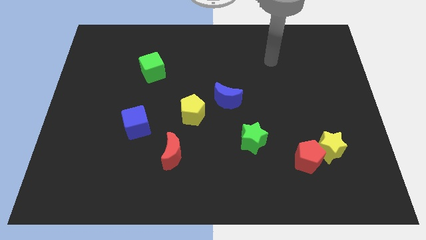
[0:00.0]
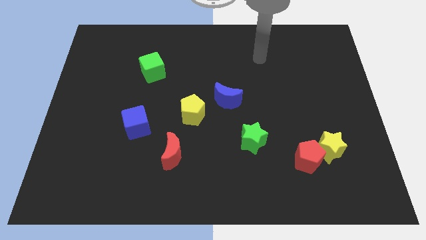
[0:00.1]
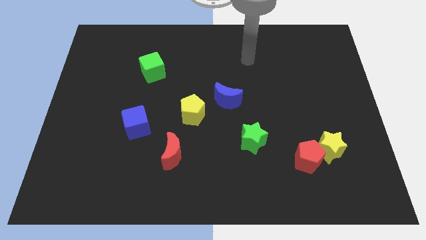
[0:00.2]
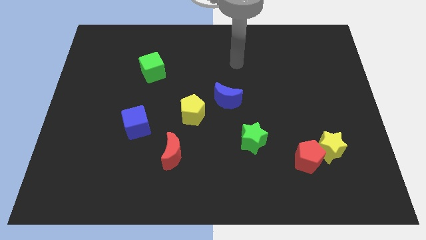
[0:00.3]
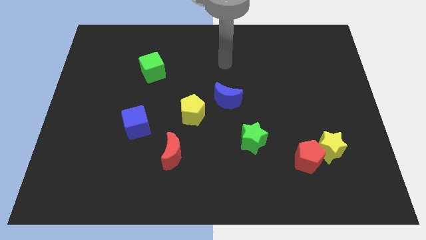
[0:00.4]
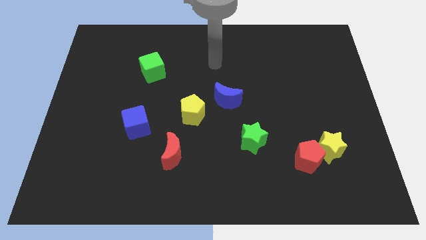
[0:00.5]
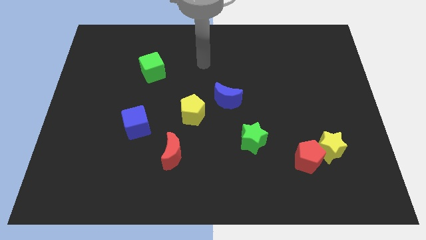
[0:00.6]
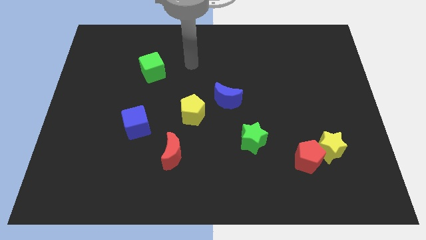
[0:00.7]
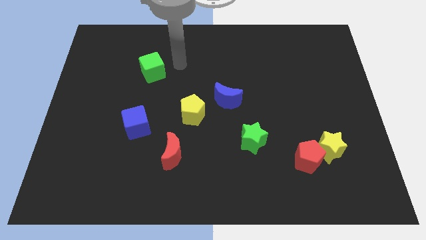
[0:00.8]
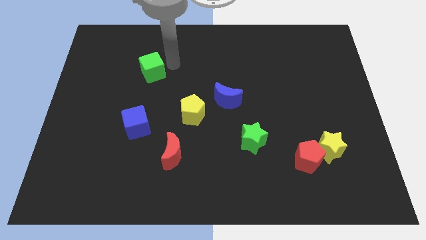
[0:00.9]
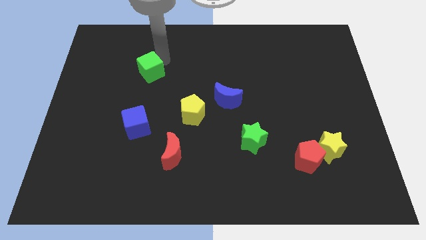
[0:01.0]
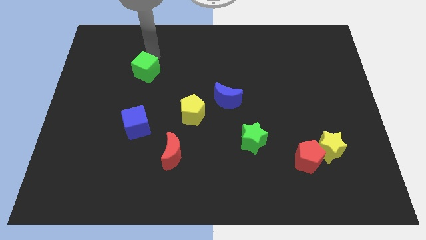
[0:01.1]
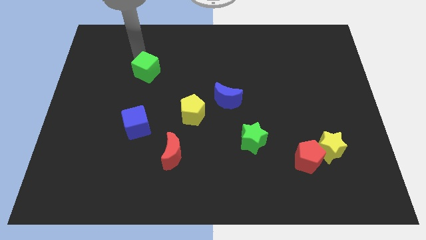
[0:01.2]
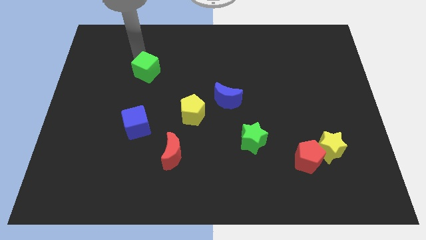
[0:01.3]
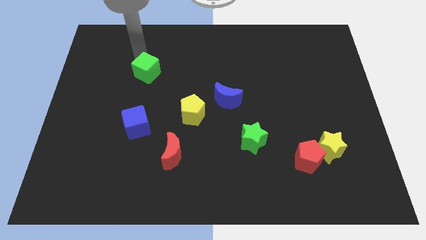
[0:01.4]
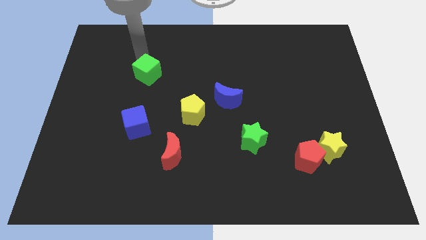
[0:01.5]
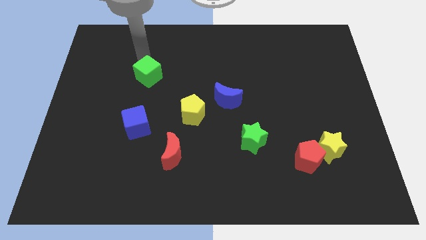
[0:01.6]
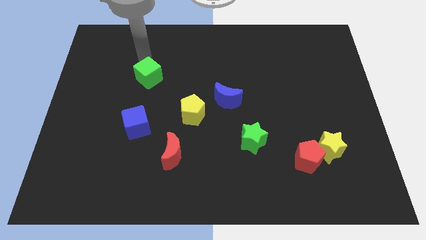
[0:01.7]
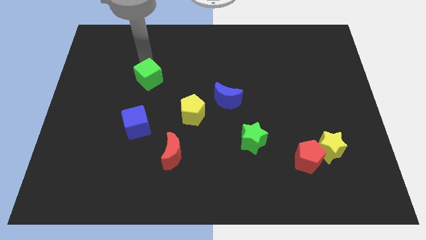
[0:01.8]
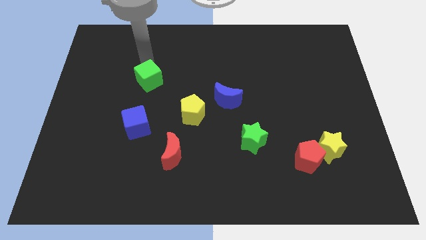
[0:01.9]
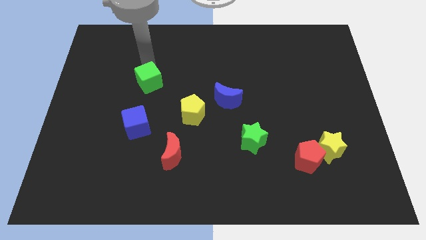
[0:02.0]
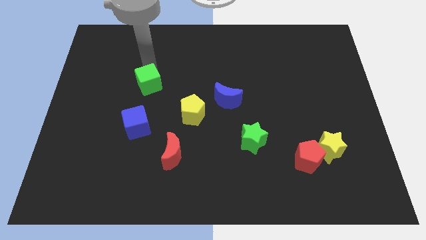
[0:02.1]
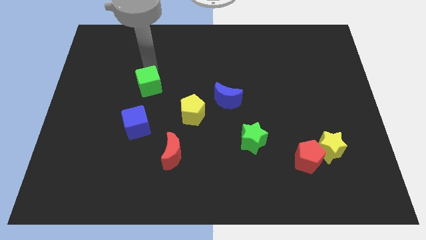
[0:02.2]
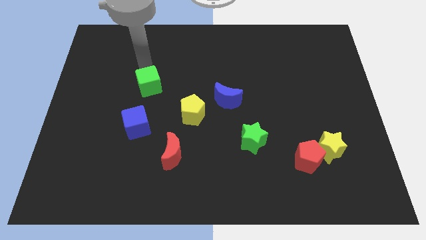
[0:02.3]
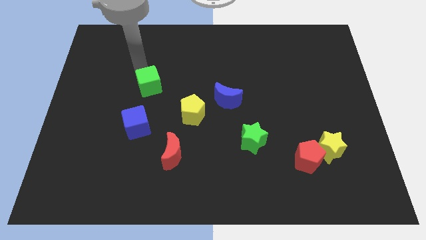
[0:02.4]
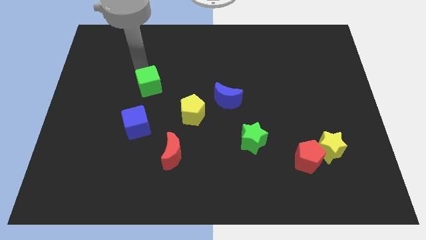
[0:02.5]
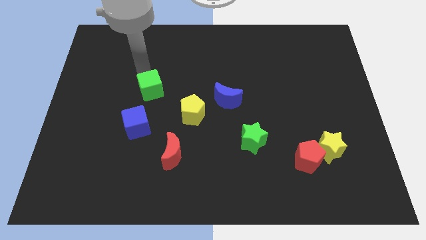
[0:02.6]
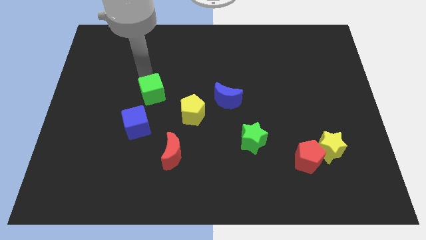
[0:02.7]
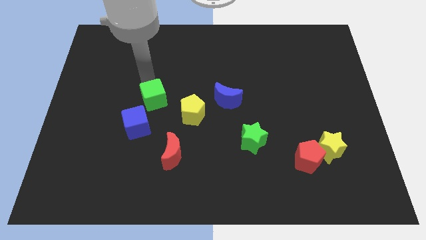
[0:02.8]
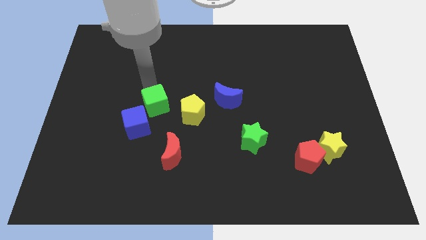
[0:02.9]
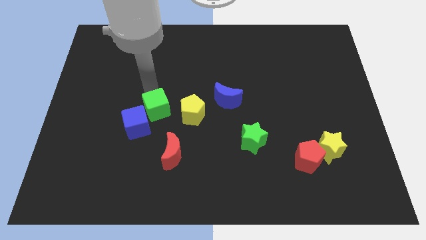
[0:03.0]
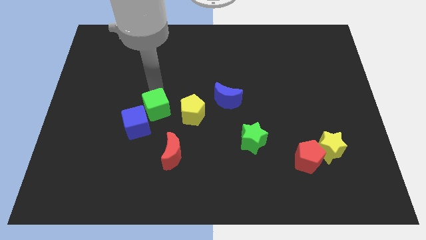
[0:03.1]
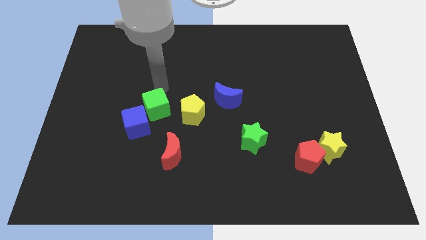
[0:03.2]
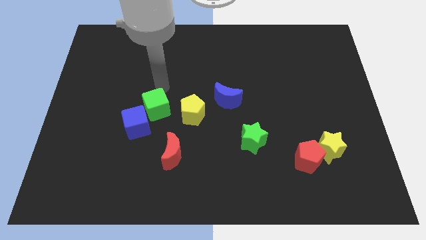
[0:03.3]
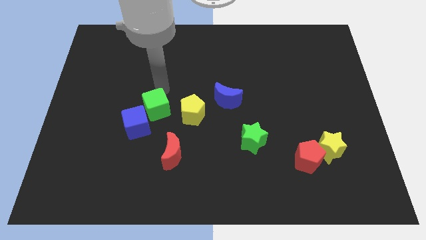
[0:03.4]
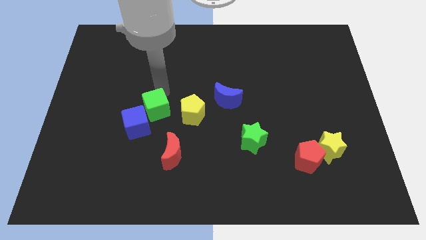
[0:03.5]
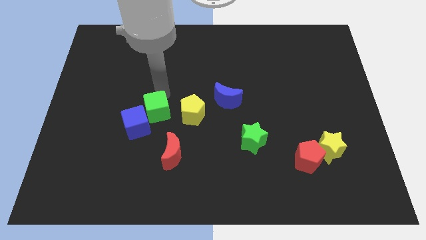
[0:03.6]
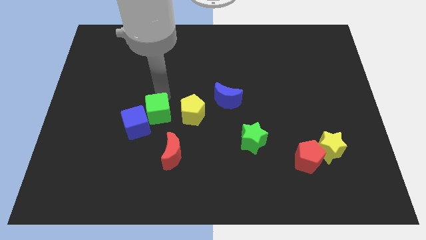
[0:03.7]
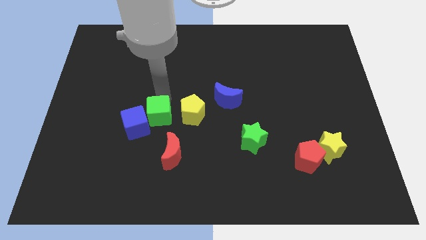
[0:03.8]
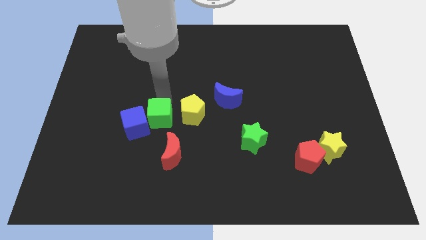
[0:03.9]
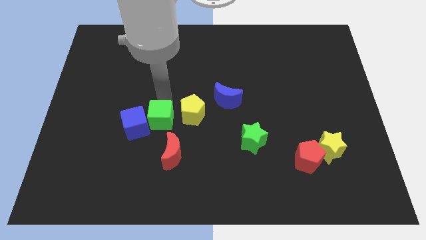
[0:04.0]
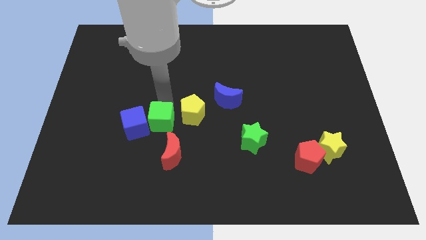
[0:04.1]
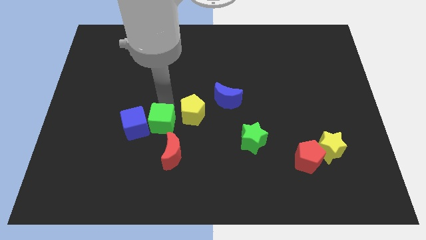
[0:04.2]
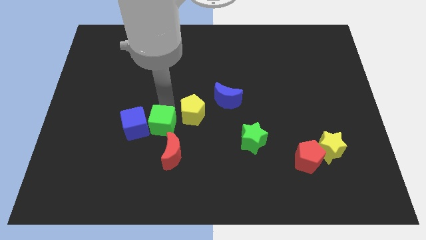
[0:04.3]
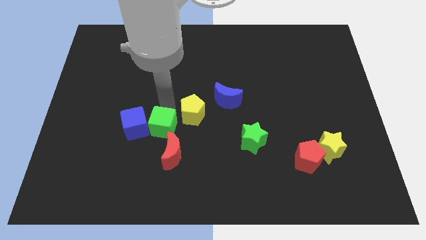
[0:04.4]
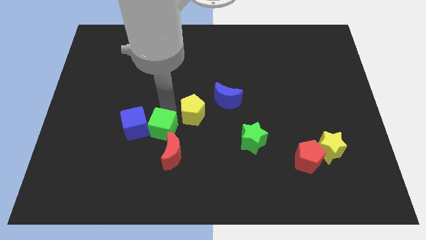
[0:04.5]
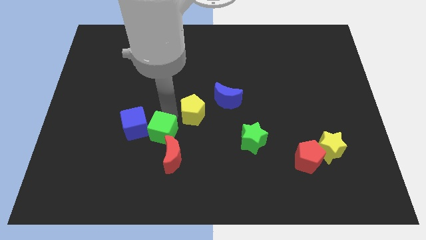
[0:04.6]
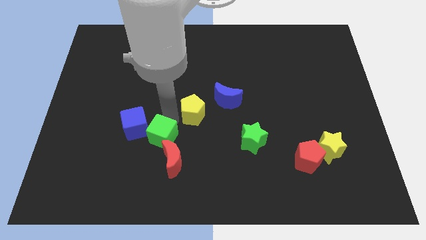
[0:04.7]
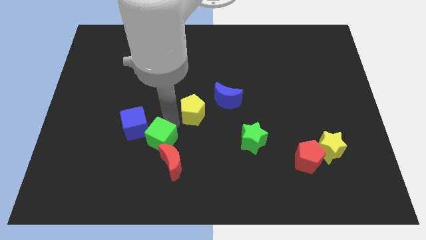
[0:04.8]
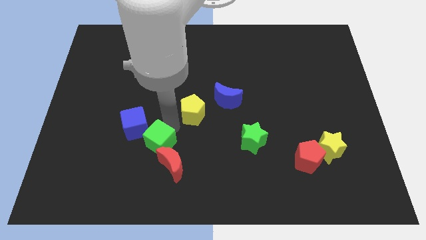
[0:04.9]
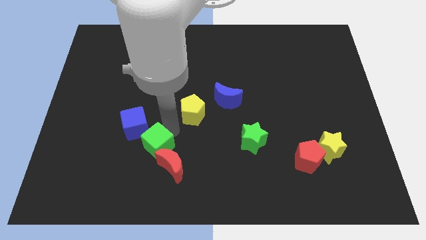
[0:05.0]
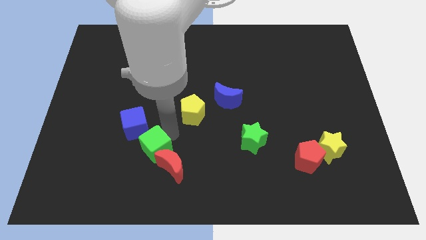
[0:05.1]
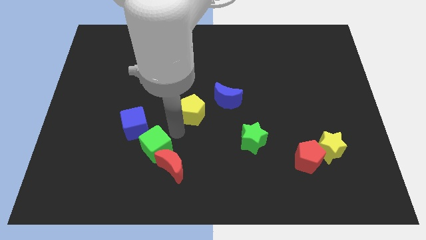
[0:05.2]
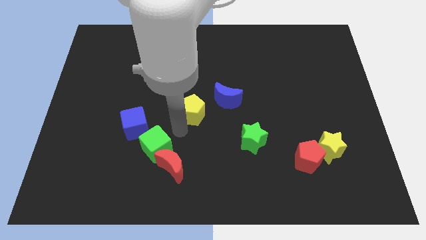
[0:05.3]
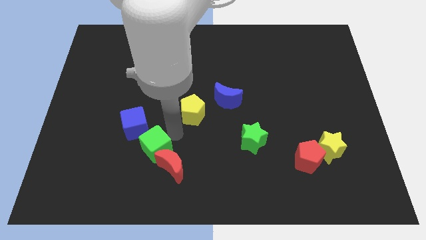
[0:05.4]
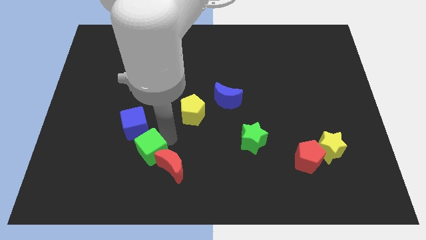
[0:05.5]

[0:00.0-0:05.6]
move the green cube to the bottom of the blue cube

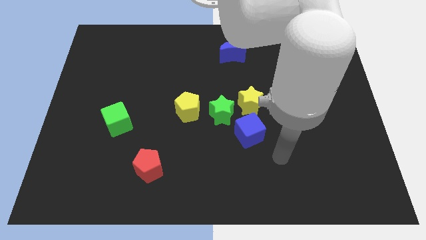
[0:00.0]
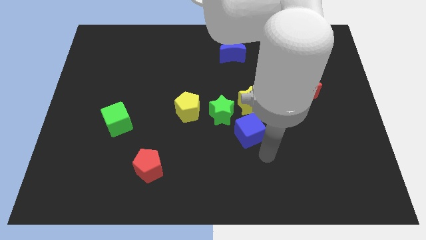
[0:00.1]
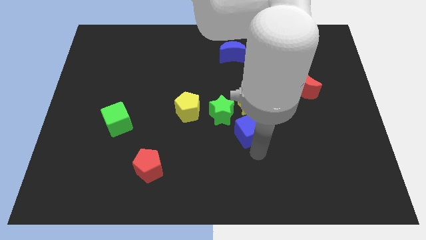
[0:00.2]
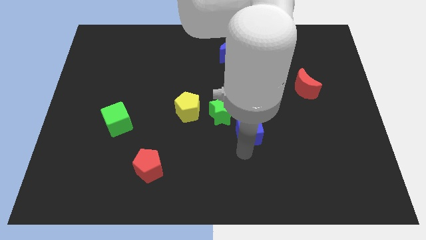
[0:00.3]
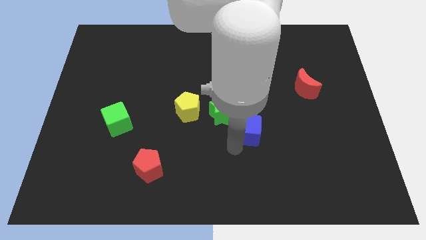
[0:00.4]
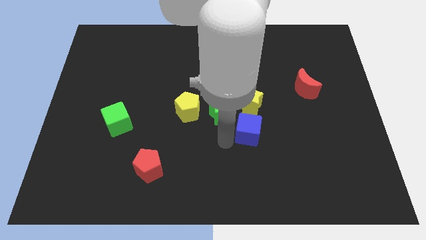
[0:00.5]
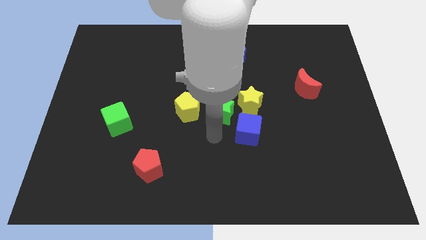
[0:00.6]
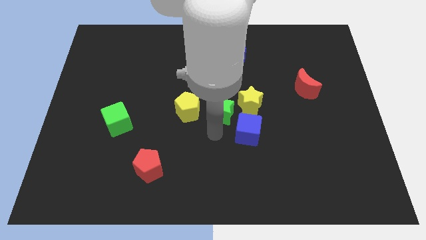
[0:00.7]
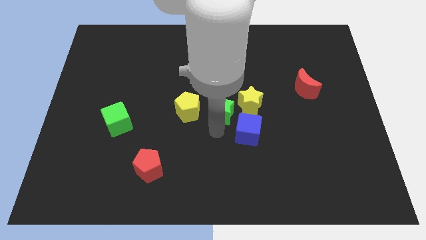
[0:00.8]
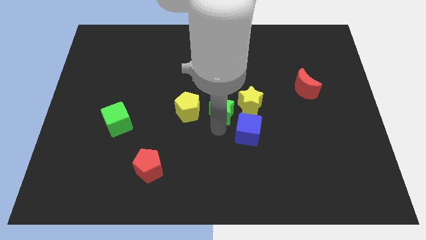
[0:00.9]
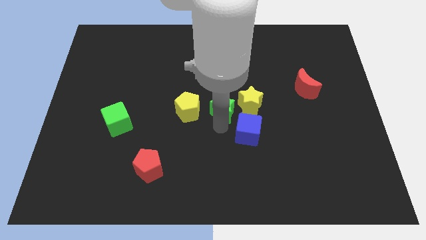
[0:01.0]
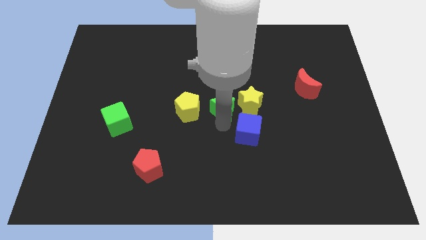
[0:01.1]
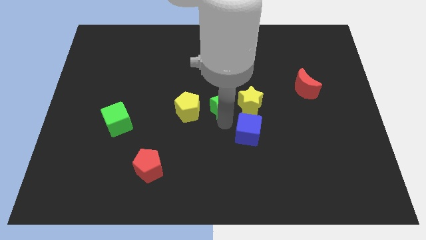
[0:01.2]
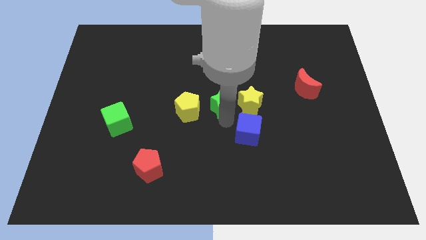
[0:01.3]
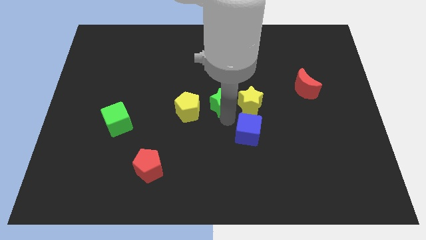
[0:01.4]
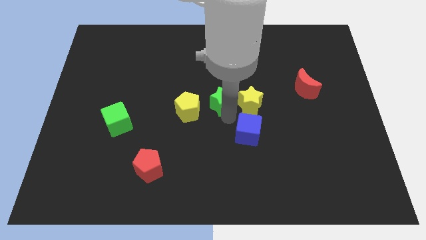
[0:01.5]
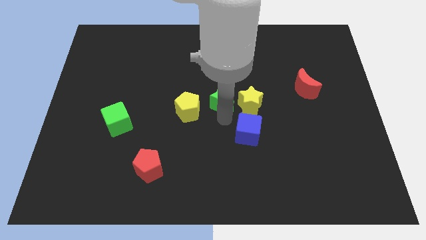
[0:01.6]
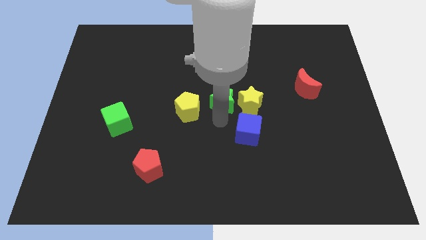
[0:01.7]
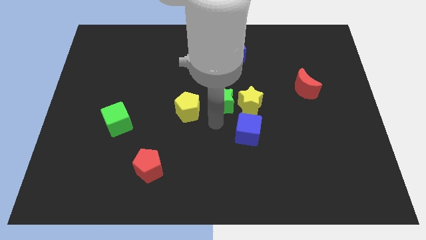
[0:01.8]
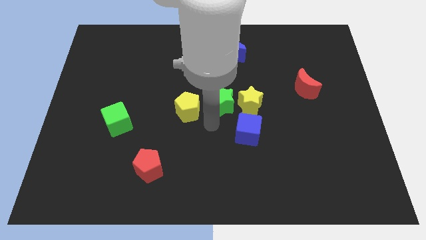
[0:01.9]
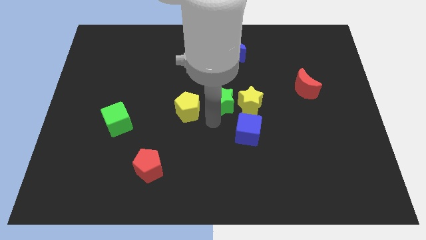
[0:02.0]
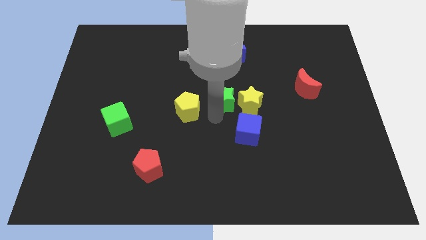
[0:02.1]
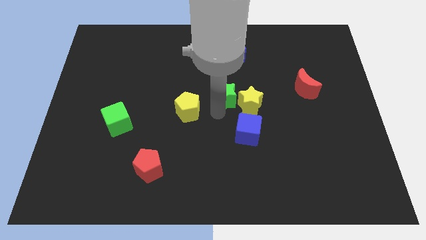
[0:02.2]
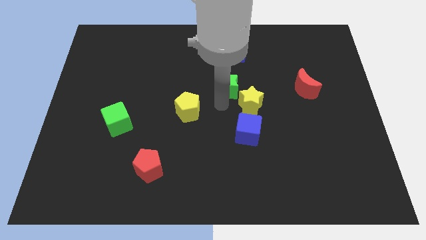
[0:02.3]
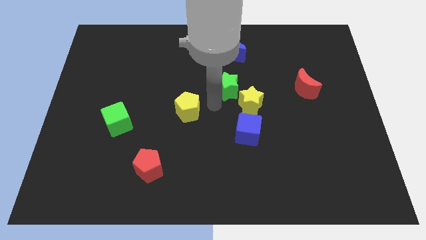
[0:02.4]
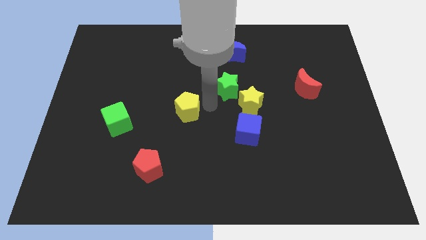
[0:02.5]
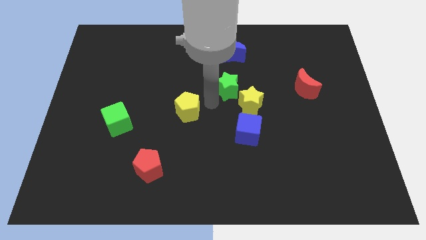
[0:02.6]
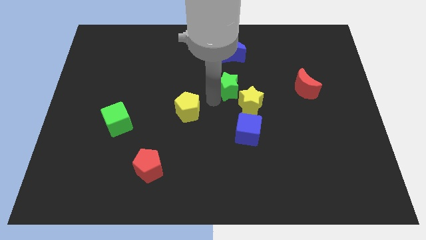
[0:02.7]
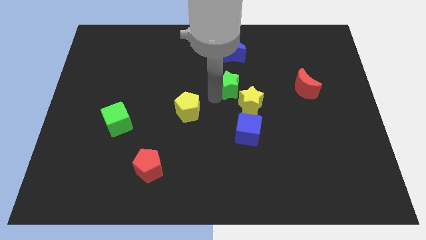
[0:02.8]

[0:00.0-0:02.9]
push the green star to the top of the yellow star
